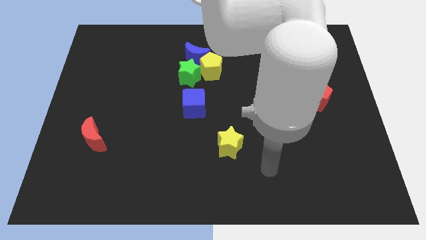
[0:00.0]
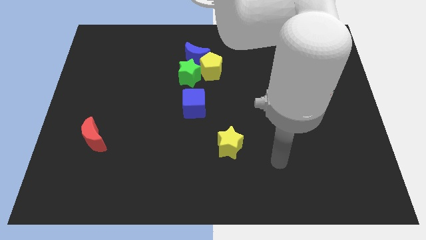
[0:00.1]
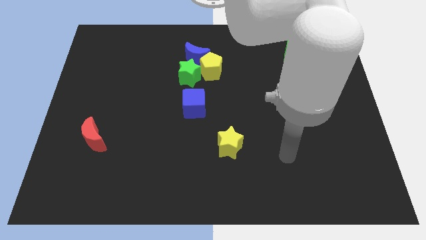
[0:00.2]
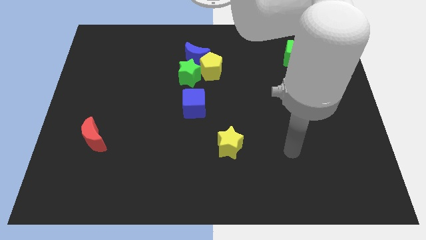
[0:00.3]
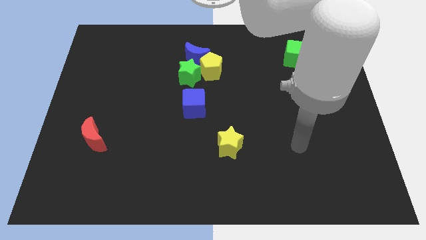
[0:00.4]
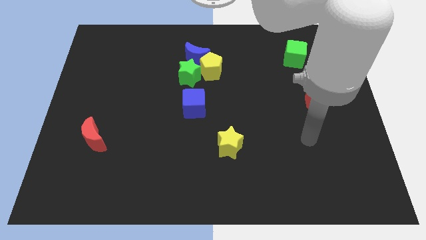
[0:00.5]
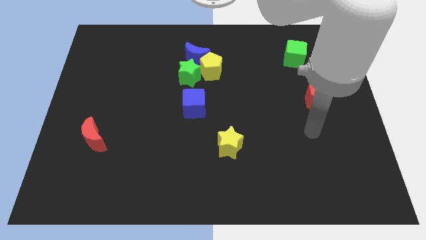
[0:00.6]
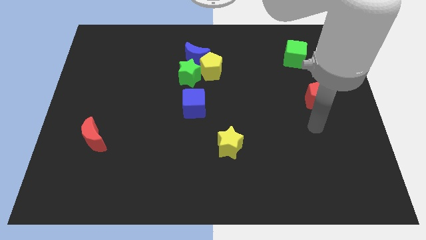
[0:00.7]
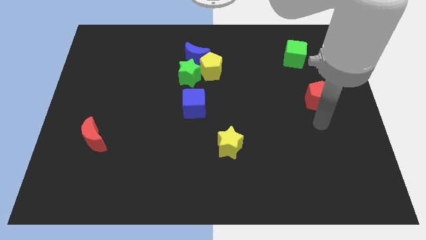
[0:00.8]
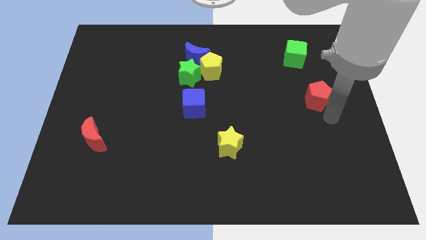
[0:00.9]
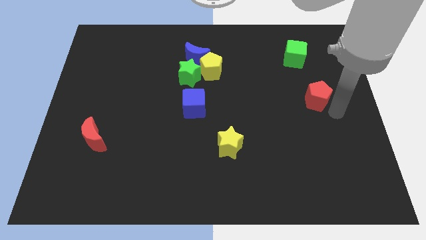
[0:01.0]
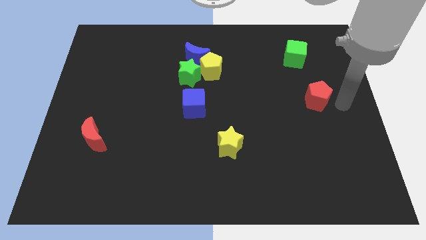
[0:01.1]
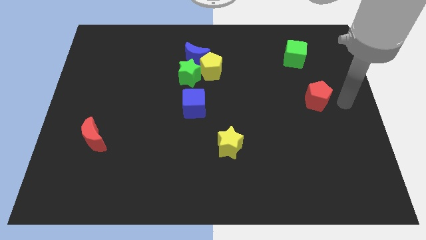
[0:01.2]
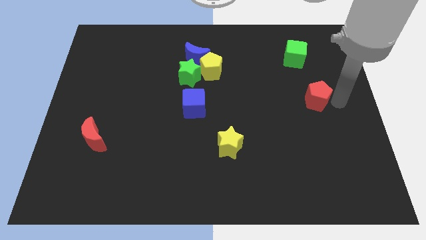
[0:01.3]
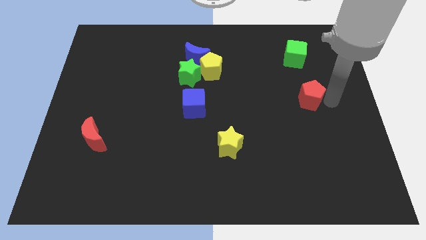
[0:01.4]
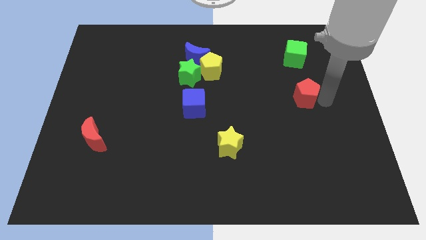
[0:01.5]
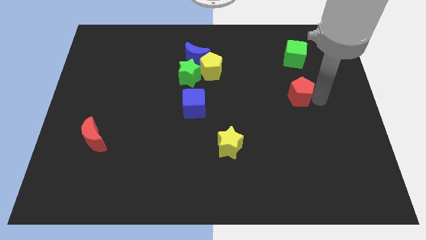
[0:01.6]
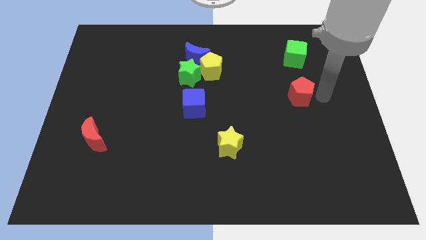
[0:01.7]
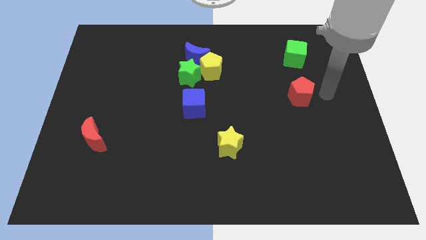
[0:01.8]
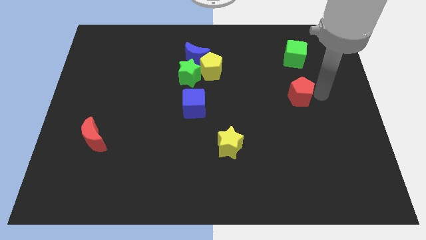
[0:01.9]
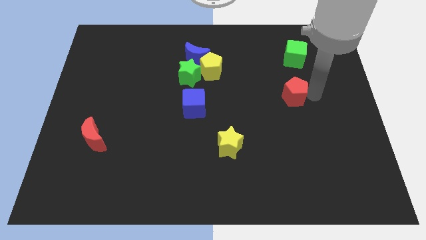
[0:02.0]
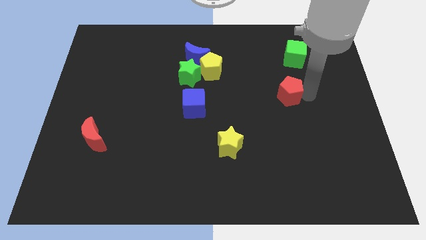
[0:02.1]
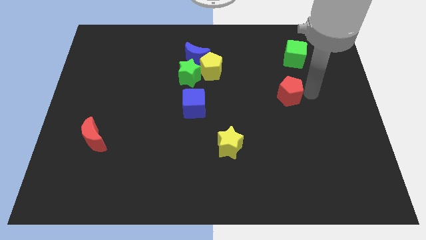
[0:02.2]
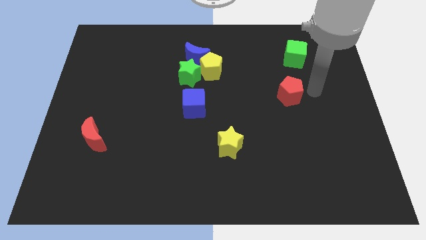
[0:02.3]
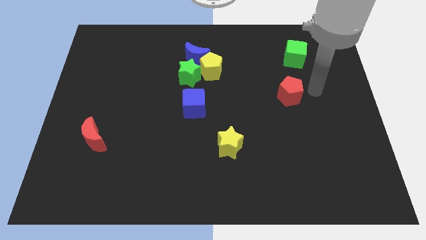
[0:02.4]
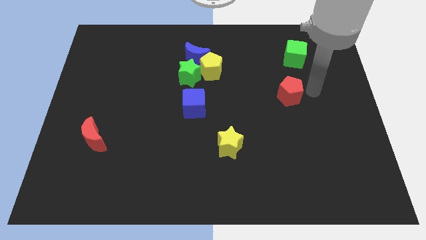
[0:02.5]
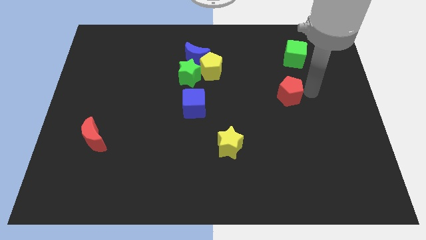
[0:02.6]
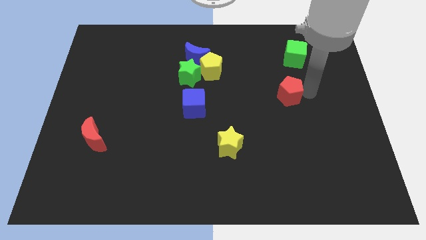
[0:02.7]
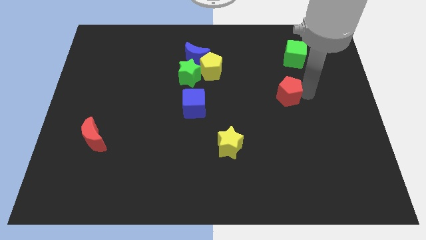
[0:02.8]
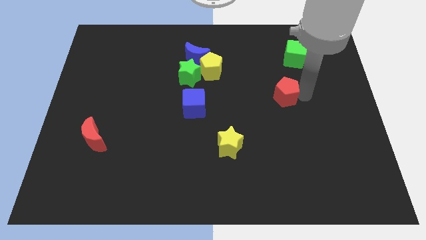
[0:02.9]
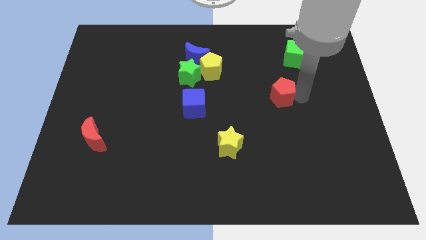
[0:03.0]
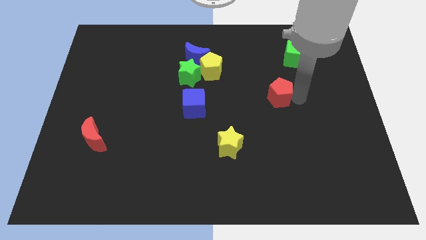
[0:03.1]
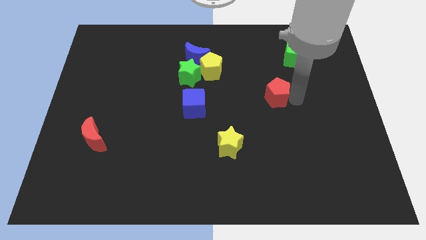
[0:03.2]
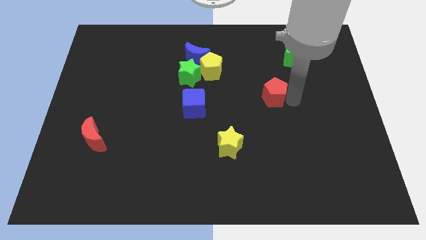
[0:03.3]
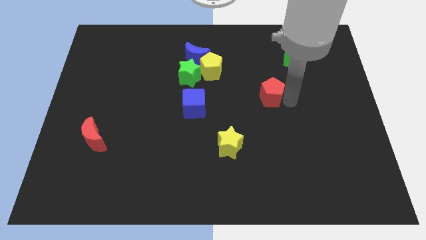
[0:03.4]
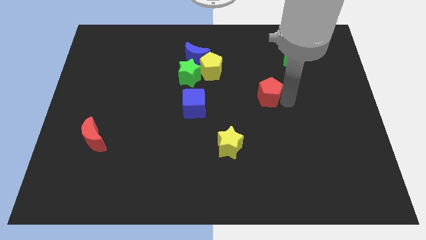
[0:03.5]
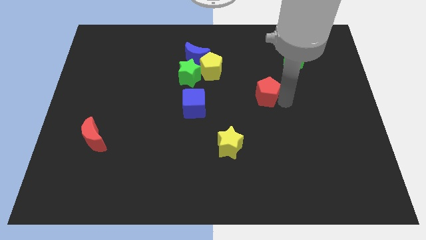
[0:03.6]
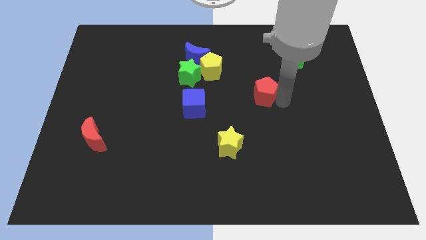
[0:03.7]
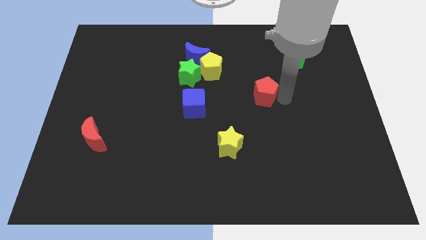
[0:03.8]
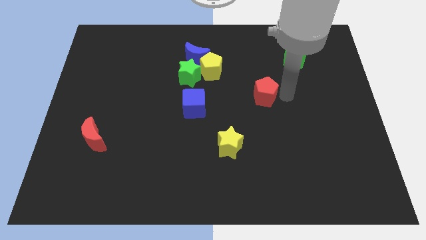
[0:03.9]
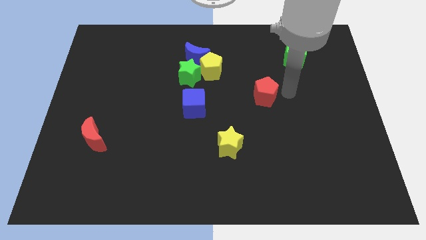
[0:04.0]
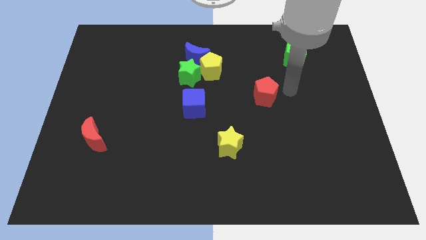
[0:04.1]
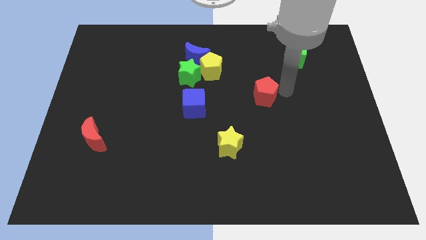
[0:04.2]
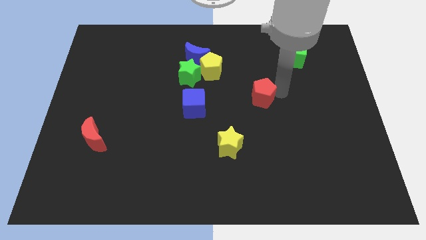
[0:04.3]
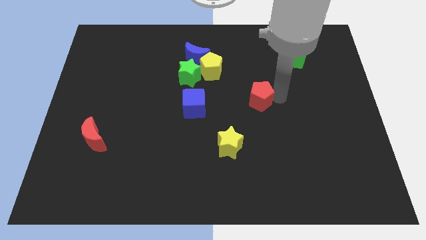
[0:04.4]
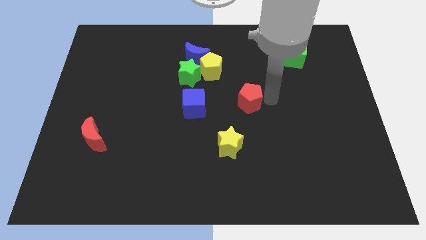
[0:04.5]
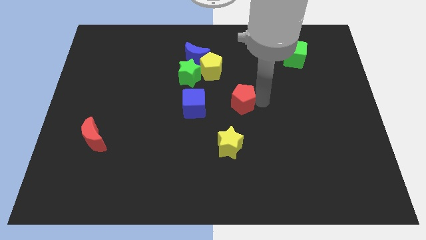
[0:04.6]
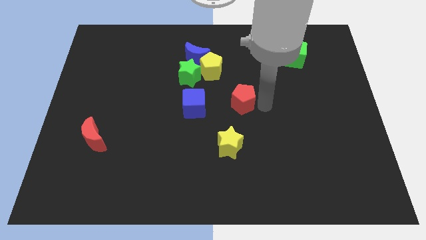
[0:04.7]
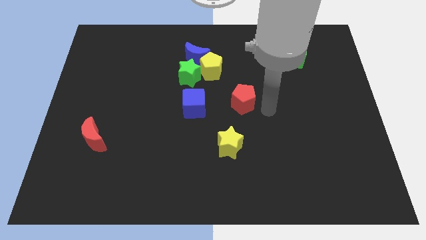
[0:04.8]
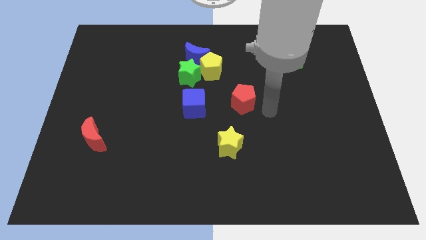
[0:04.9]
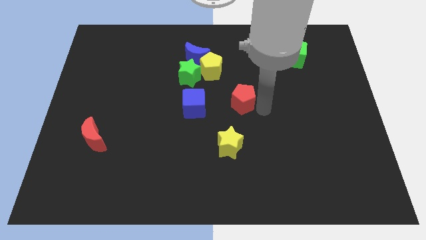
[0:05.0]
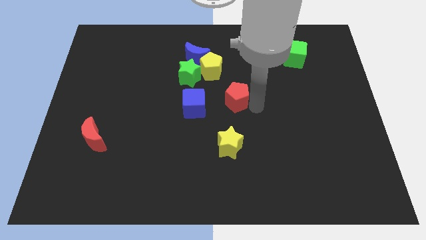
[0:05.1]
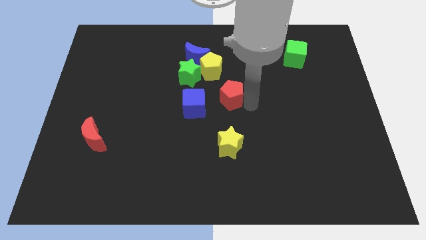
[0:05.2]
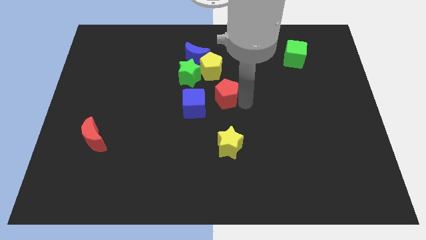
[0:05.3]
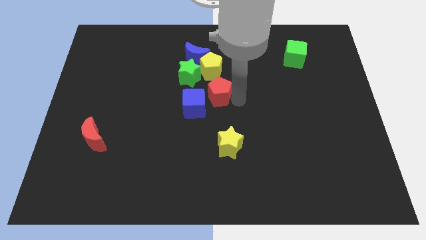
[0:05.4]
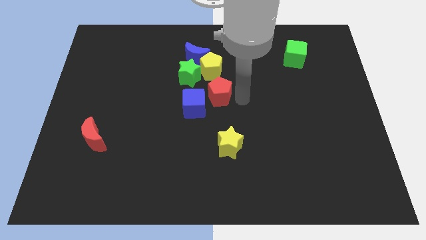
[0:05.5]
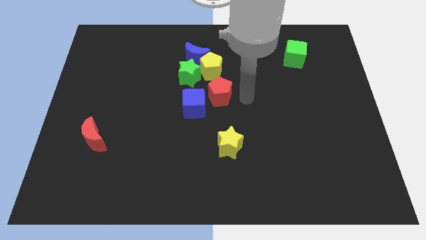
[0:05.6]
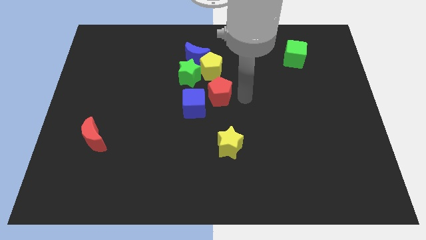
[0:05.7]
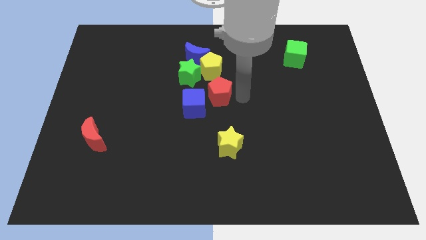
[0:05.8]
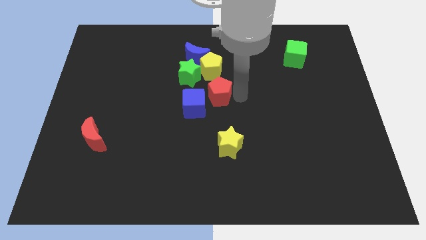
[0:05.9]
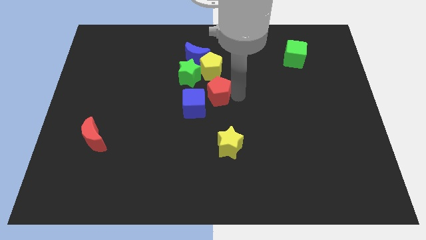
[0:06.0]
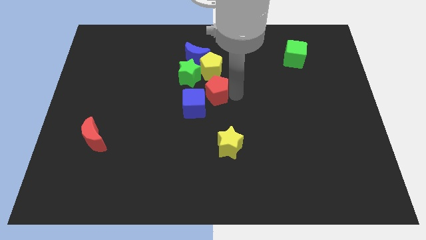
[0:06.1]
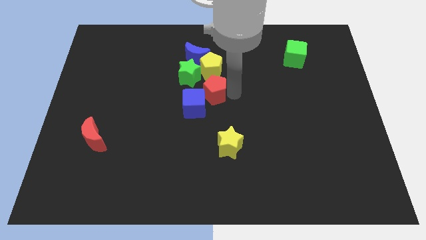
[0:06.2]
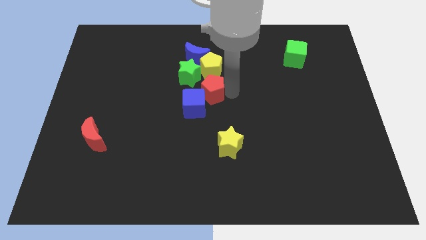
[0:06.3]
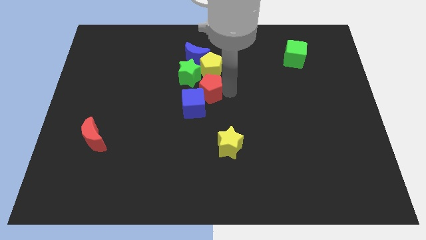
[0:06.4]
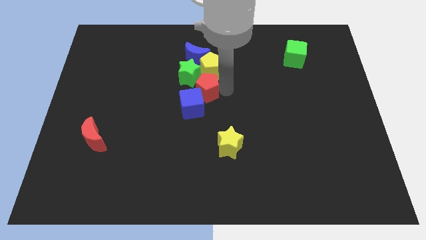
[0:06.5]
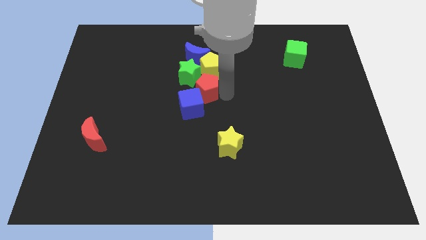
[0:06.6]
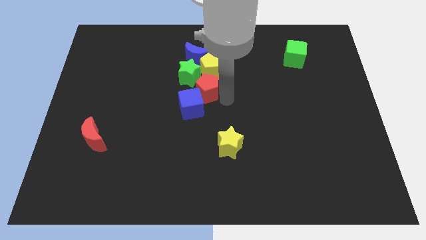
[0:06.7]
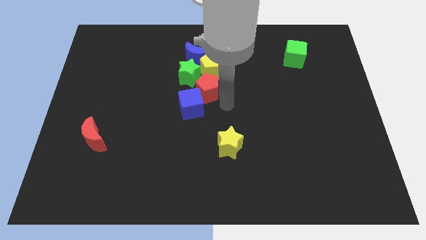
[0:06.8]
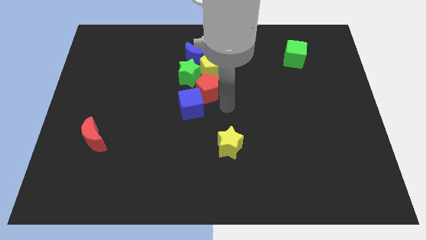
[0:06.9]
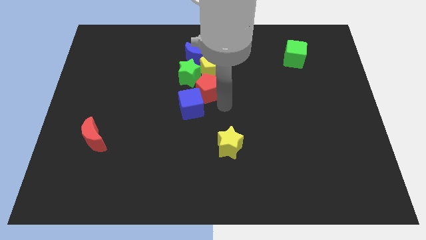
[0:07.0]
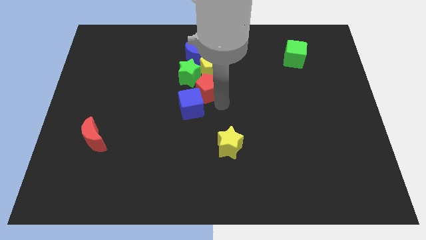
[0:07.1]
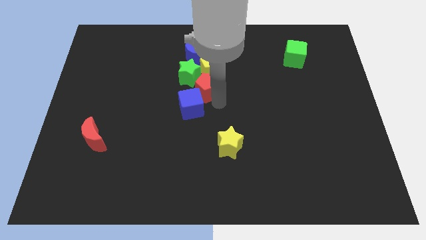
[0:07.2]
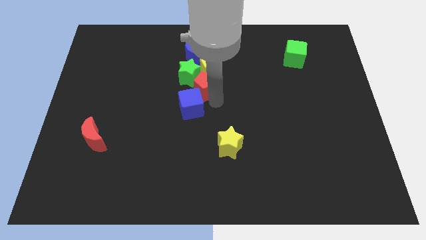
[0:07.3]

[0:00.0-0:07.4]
put the red pentagon to the green star
